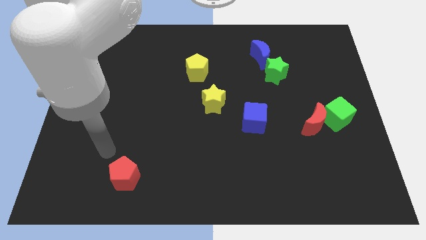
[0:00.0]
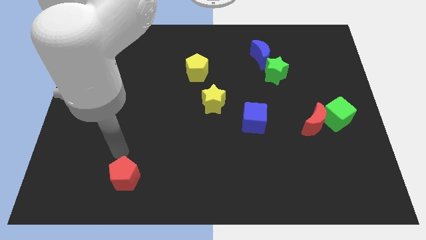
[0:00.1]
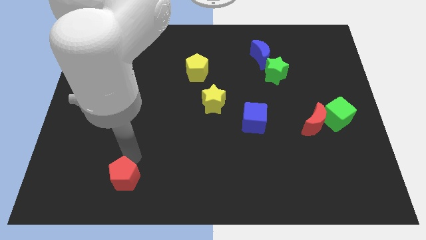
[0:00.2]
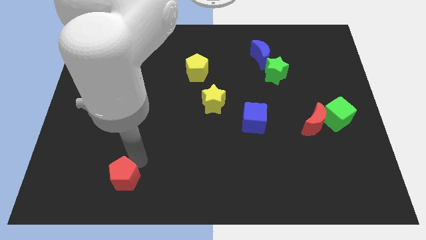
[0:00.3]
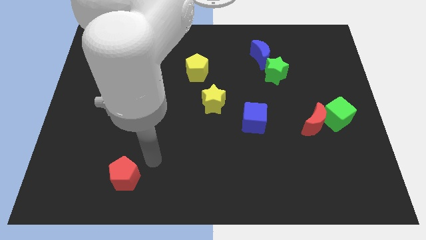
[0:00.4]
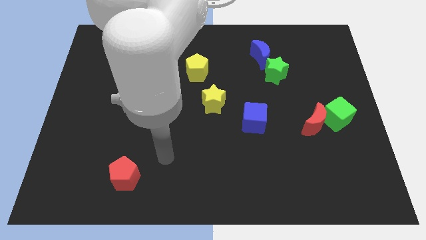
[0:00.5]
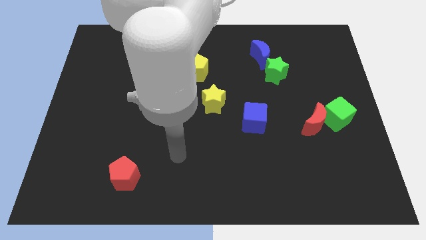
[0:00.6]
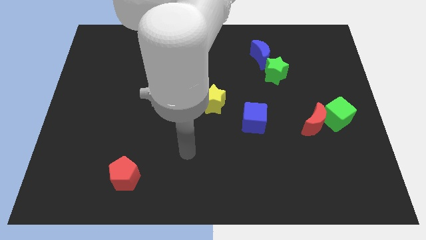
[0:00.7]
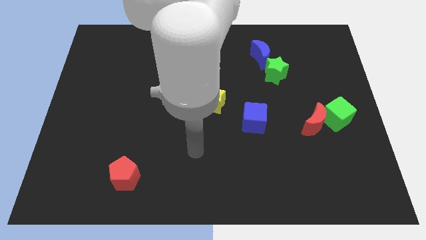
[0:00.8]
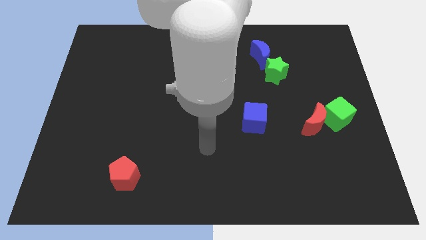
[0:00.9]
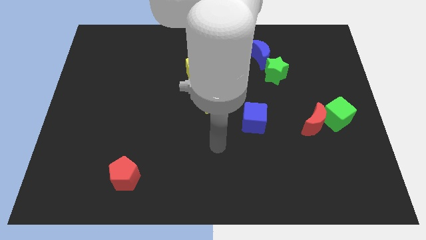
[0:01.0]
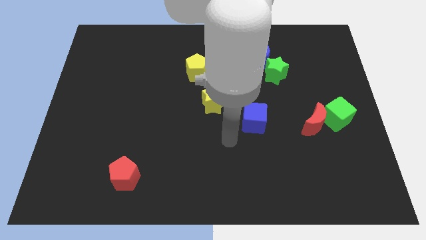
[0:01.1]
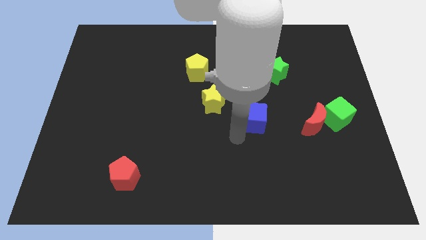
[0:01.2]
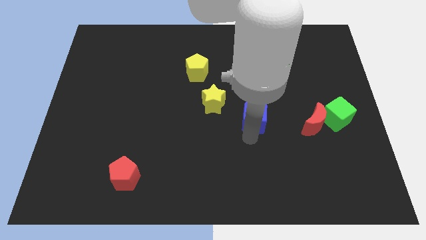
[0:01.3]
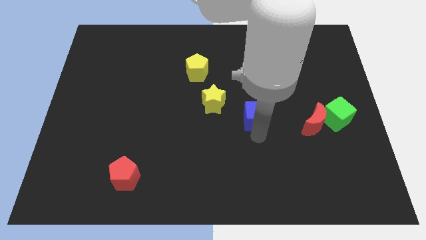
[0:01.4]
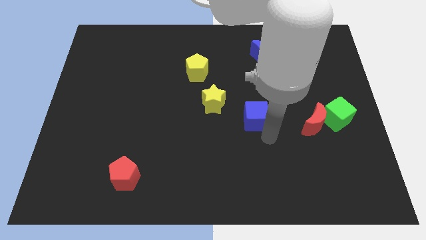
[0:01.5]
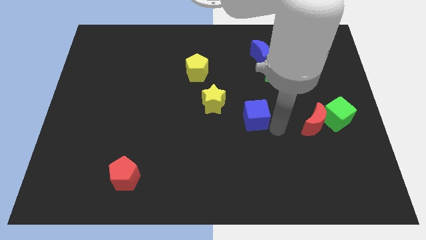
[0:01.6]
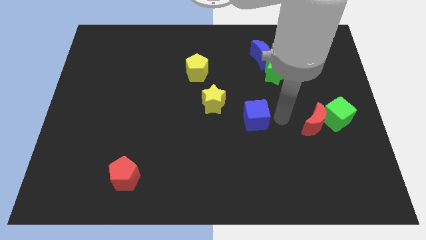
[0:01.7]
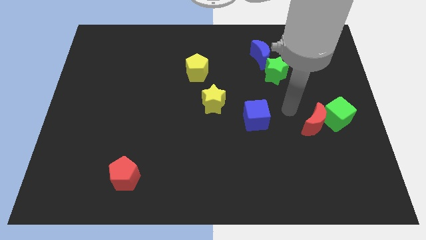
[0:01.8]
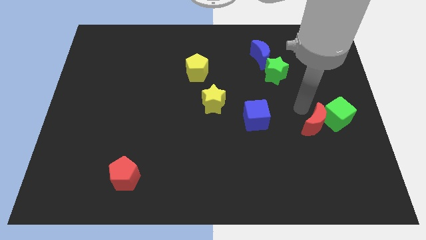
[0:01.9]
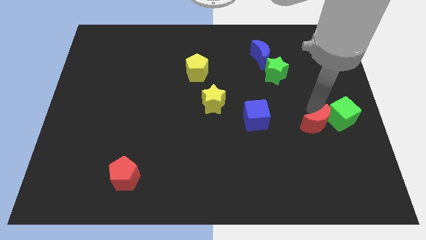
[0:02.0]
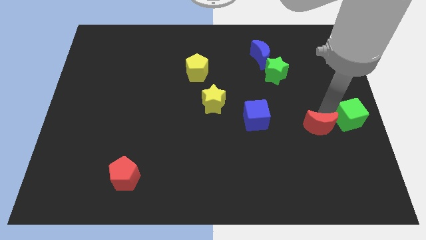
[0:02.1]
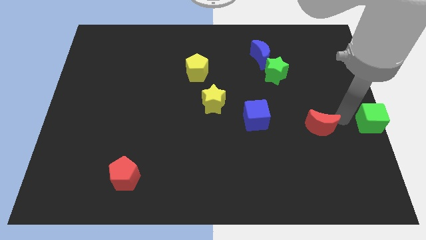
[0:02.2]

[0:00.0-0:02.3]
move the red moon away from the green cube

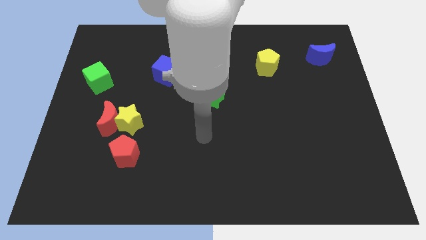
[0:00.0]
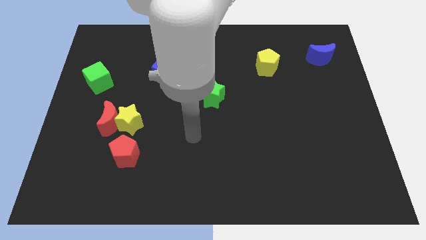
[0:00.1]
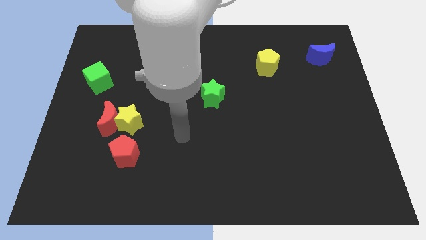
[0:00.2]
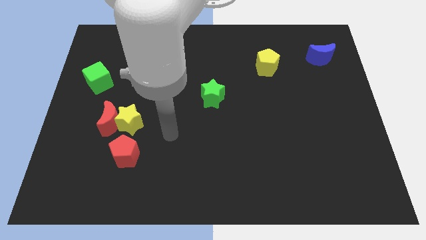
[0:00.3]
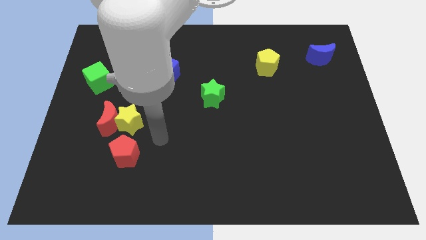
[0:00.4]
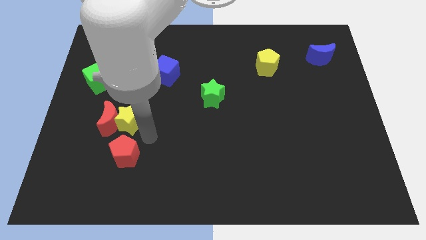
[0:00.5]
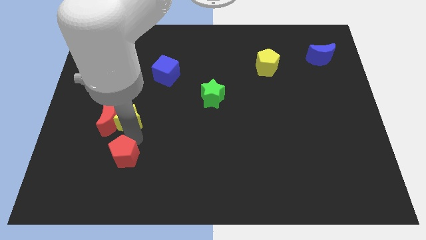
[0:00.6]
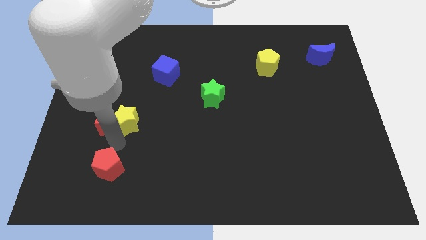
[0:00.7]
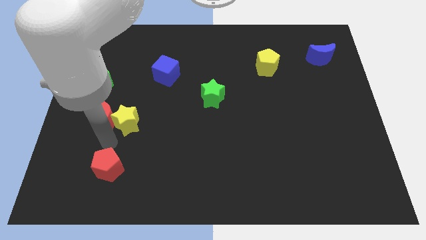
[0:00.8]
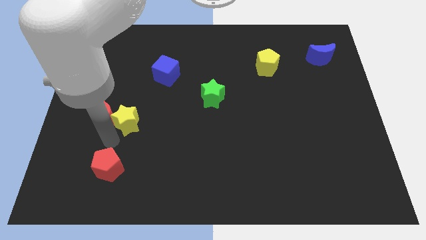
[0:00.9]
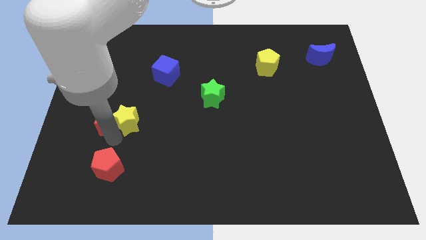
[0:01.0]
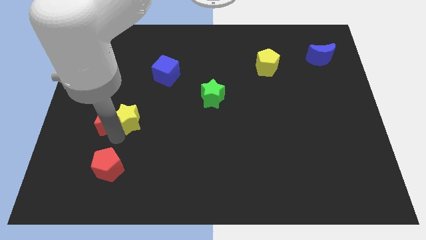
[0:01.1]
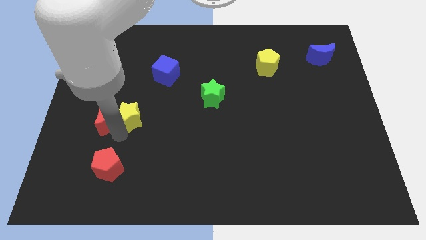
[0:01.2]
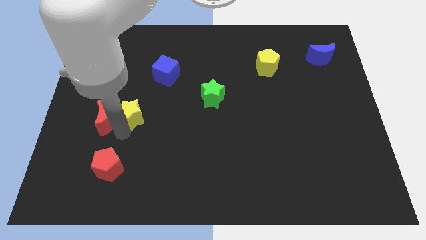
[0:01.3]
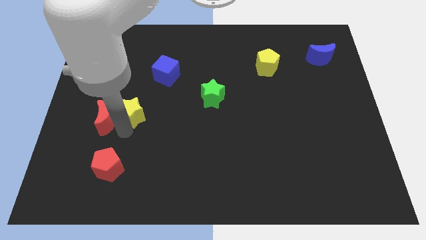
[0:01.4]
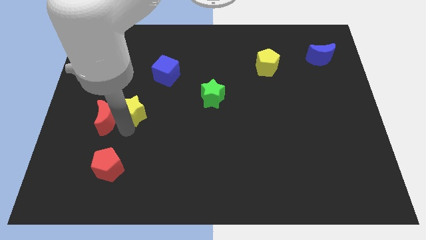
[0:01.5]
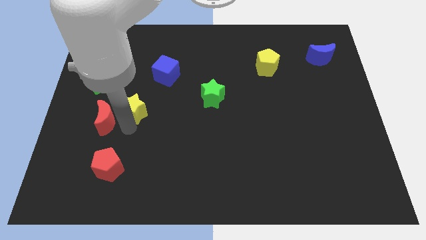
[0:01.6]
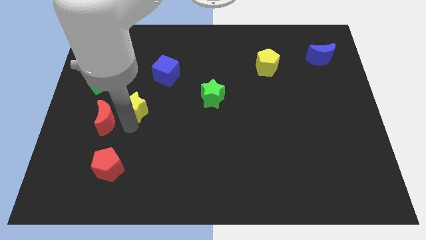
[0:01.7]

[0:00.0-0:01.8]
separate the yellow star from the red moon and red pentagon

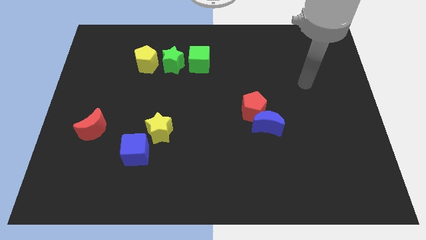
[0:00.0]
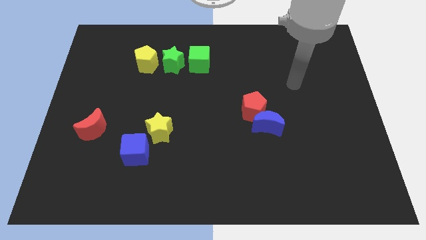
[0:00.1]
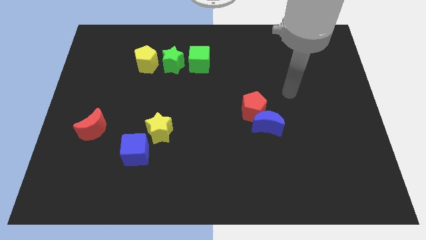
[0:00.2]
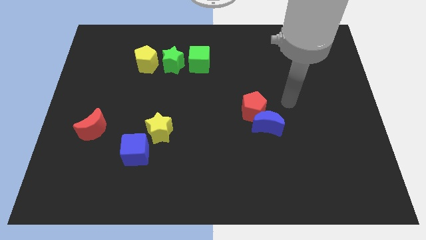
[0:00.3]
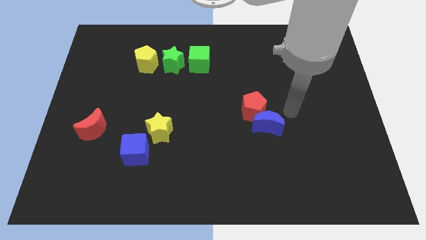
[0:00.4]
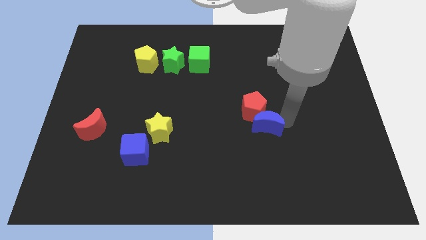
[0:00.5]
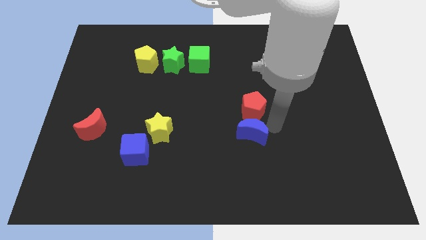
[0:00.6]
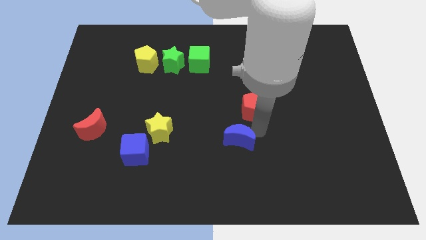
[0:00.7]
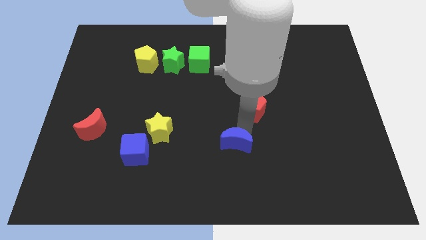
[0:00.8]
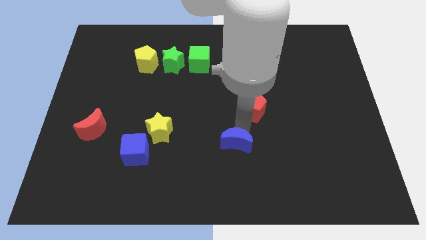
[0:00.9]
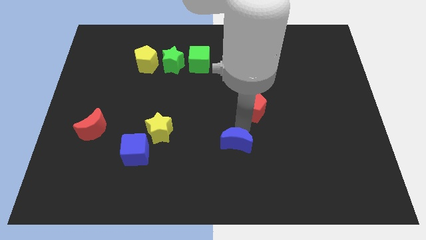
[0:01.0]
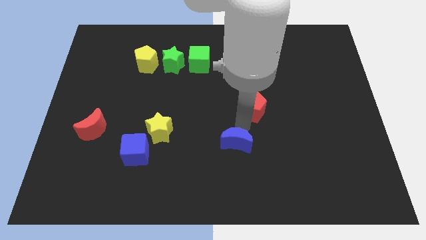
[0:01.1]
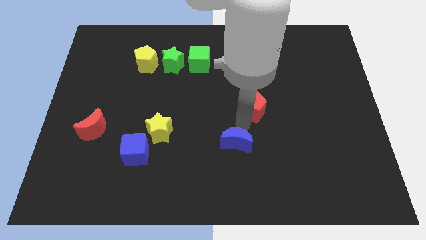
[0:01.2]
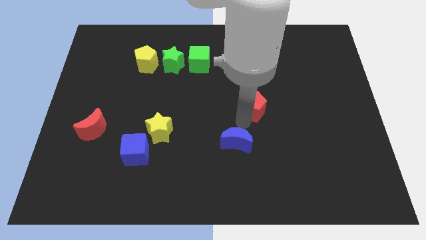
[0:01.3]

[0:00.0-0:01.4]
separate the red pentagon from the blue moon

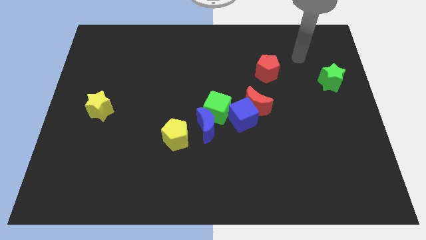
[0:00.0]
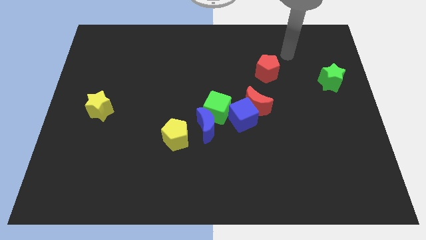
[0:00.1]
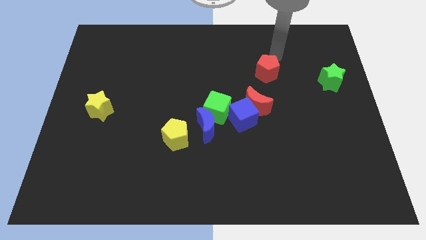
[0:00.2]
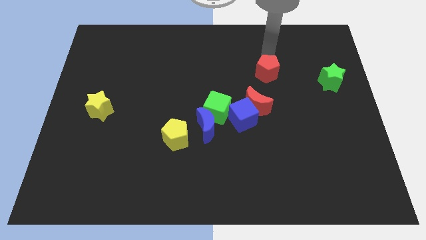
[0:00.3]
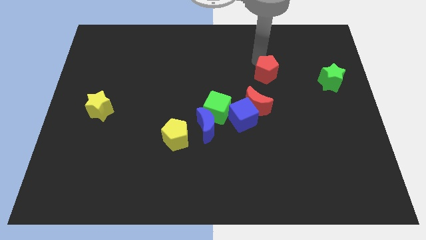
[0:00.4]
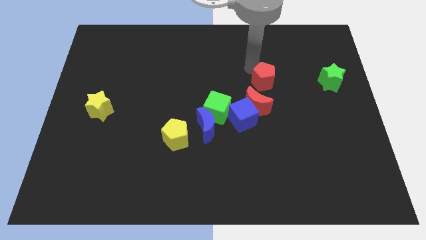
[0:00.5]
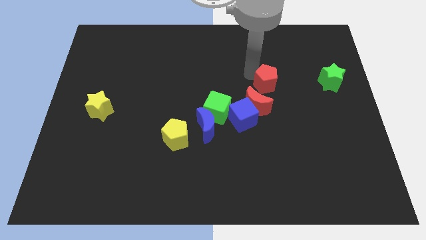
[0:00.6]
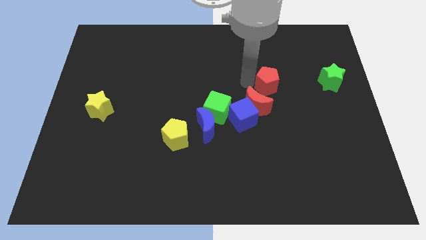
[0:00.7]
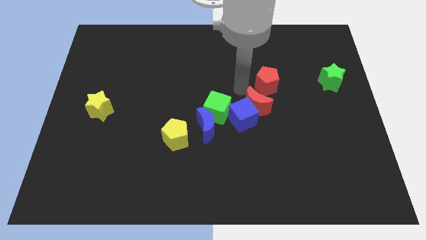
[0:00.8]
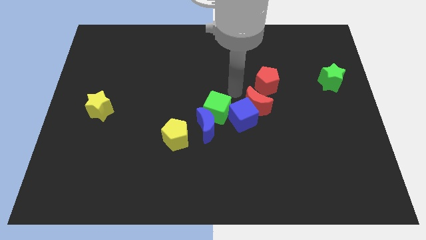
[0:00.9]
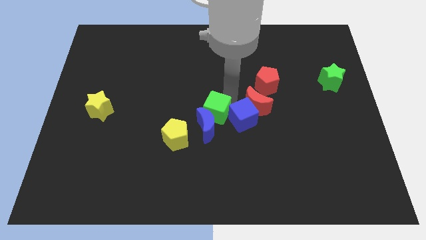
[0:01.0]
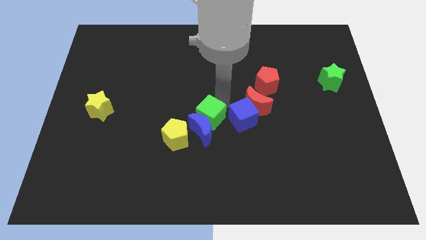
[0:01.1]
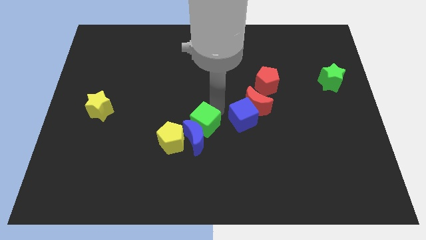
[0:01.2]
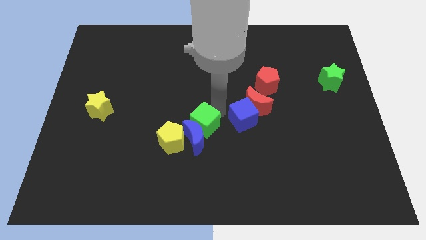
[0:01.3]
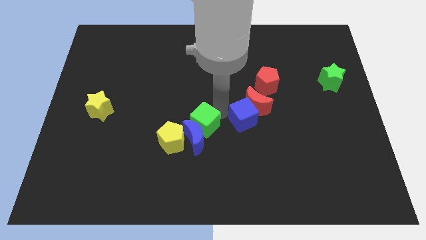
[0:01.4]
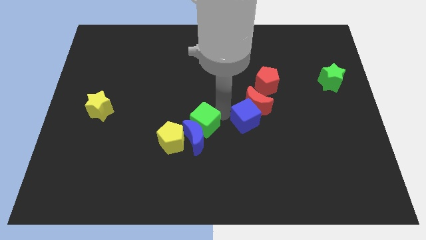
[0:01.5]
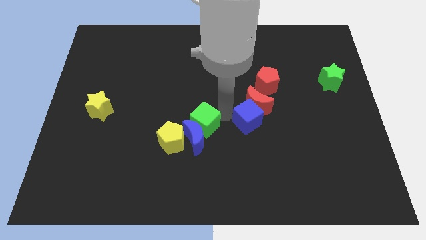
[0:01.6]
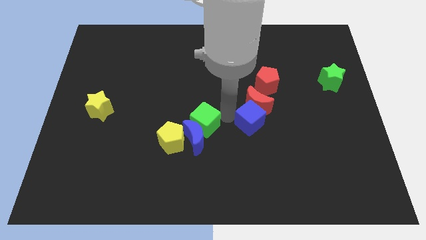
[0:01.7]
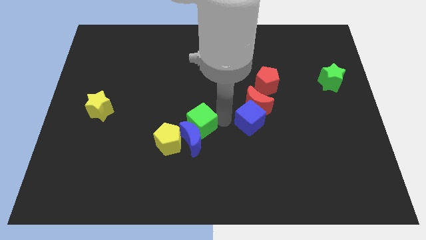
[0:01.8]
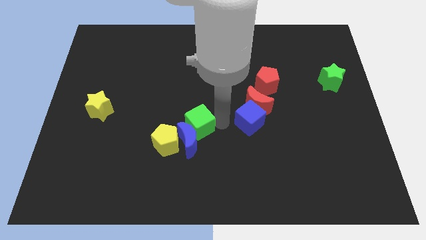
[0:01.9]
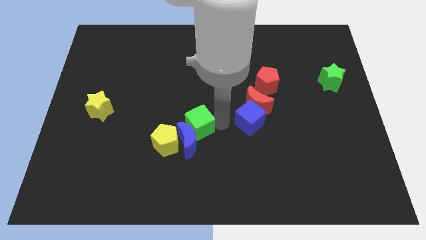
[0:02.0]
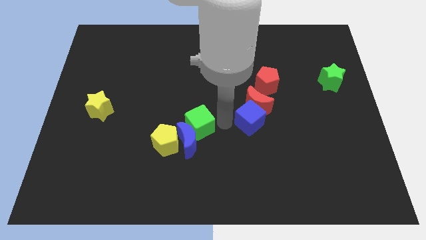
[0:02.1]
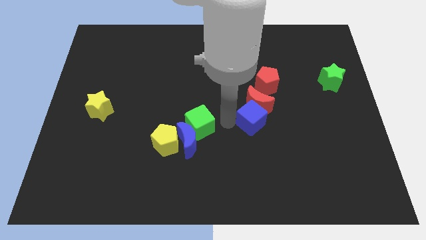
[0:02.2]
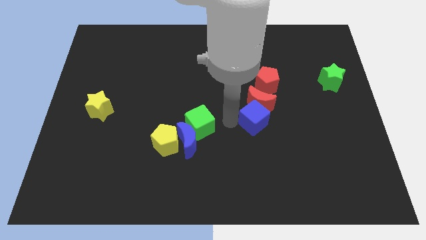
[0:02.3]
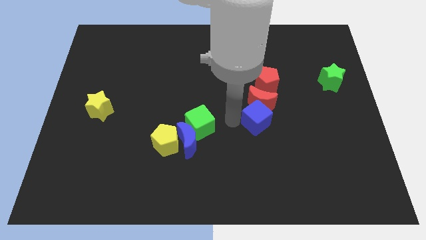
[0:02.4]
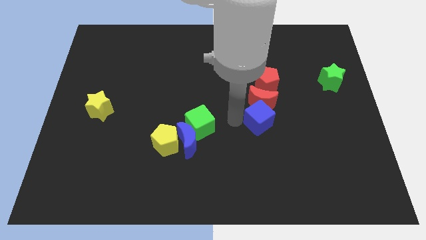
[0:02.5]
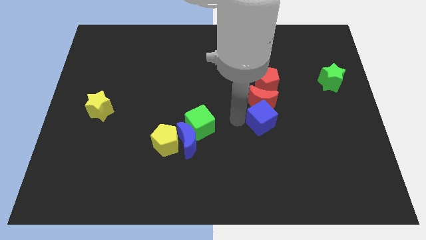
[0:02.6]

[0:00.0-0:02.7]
pull the blue cube apart from the group

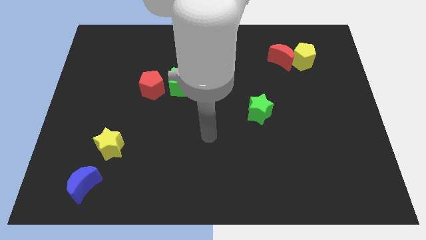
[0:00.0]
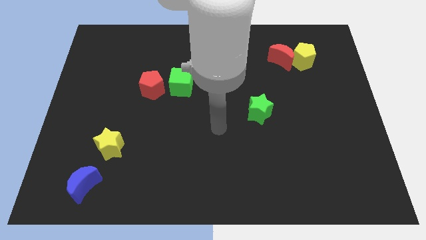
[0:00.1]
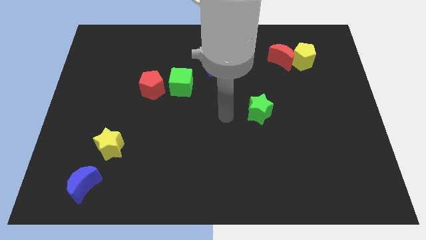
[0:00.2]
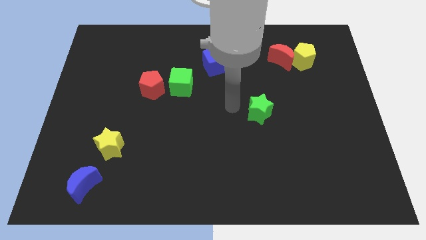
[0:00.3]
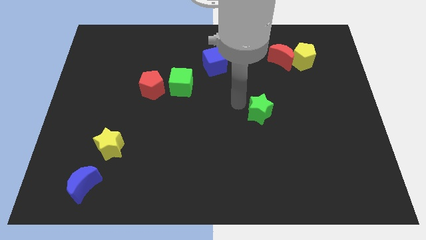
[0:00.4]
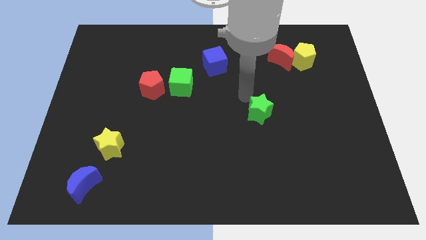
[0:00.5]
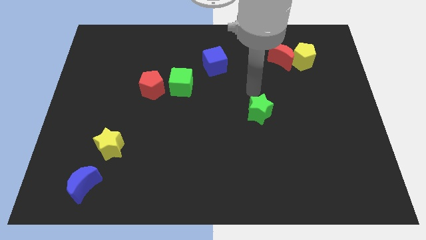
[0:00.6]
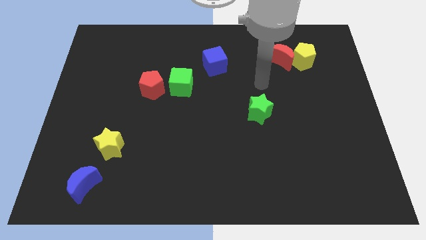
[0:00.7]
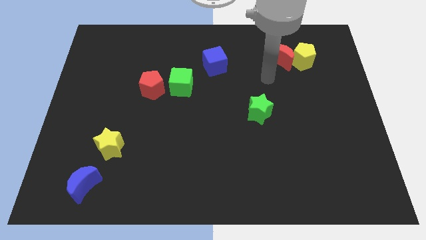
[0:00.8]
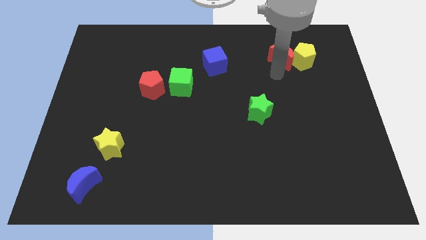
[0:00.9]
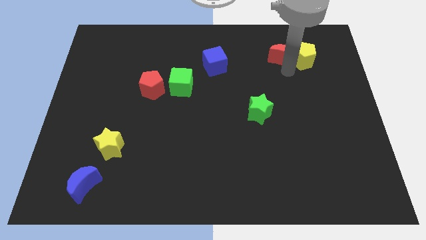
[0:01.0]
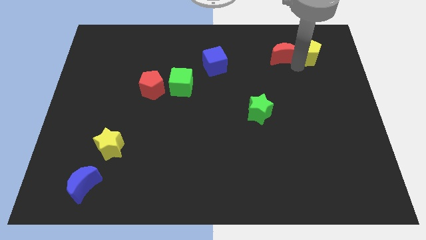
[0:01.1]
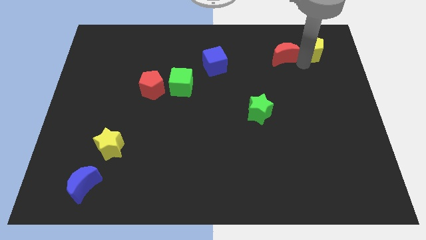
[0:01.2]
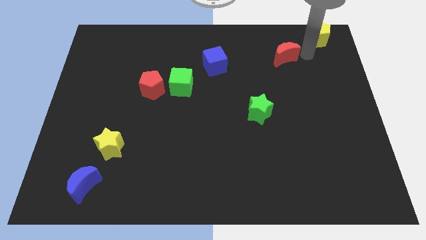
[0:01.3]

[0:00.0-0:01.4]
separate the red moon from the yellow pentagon
